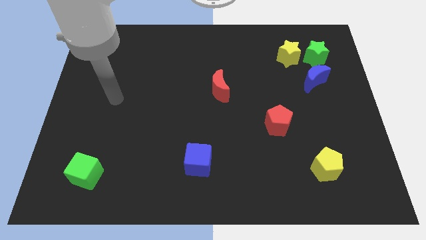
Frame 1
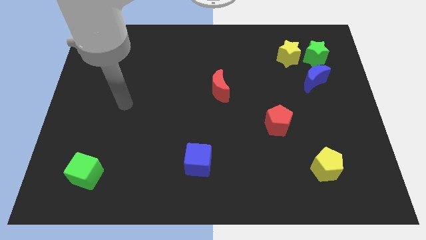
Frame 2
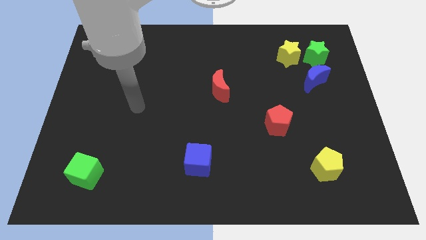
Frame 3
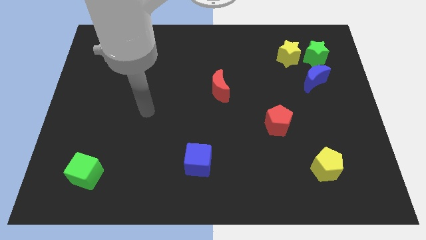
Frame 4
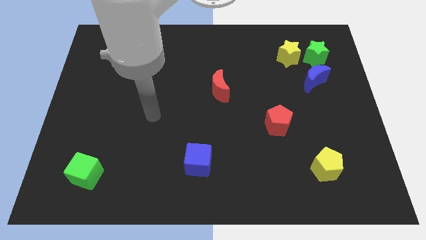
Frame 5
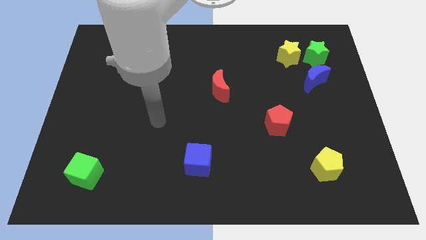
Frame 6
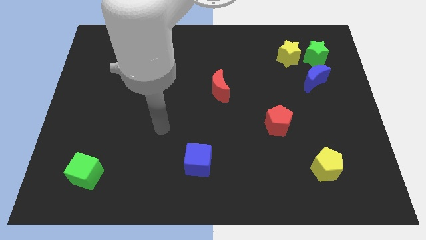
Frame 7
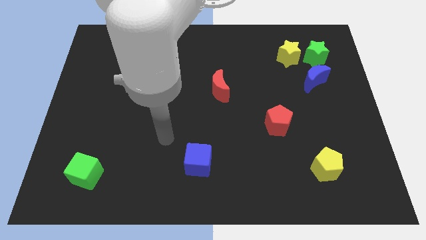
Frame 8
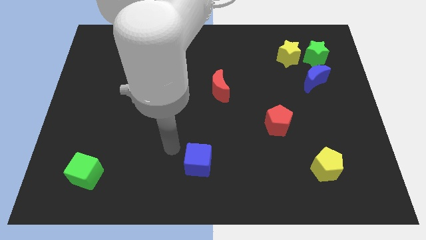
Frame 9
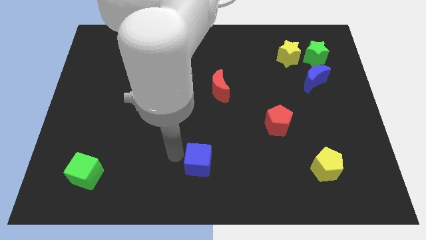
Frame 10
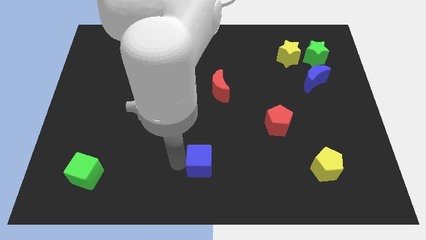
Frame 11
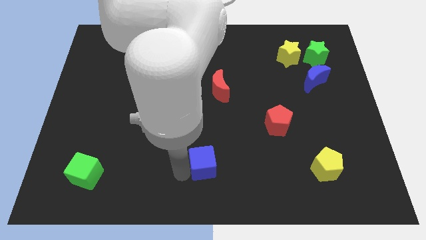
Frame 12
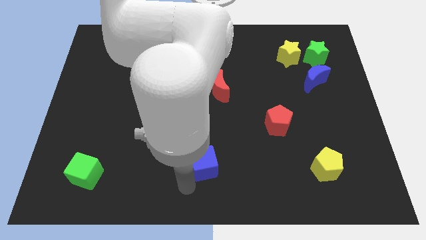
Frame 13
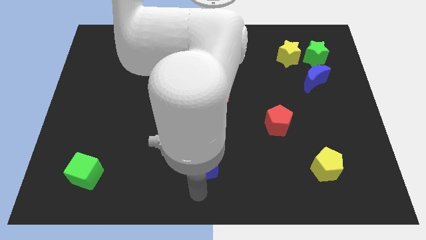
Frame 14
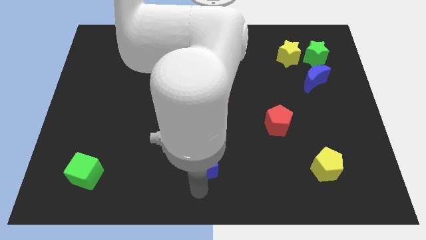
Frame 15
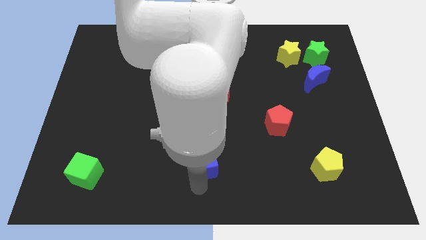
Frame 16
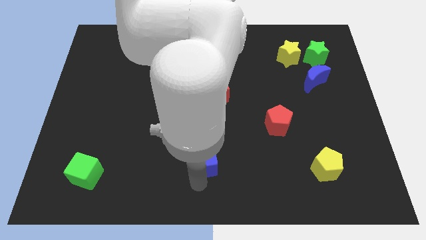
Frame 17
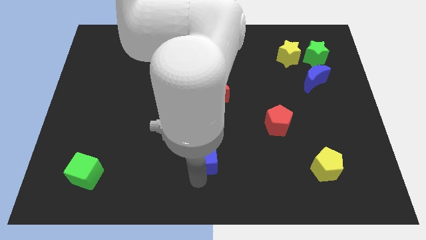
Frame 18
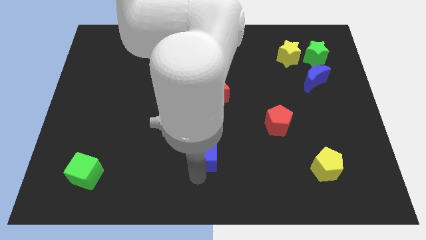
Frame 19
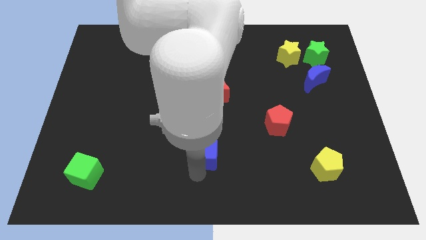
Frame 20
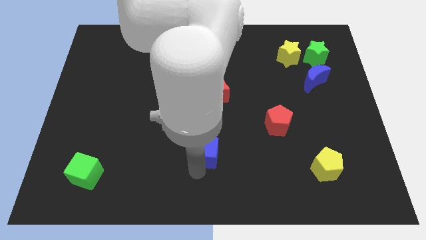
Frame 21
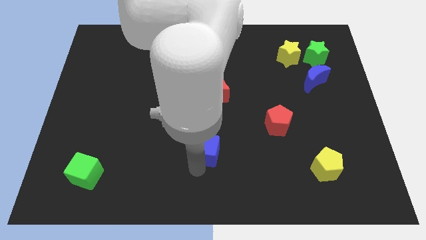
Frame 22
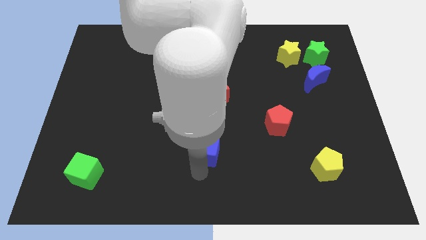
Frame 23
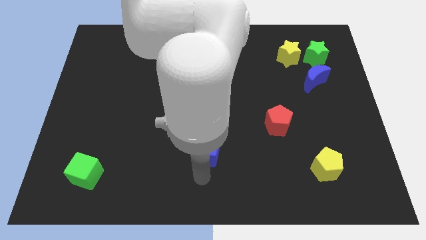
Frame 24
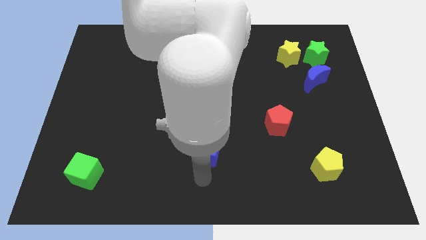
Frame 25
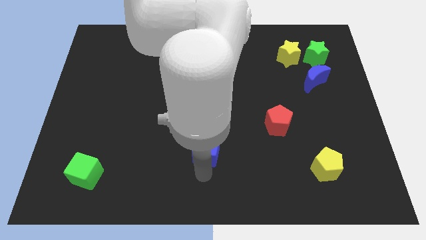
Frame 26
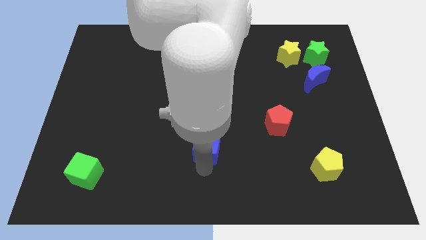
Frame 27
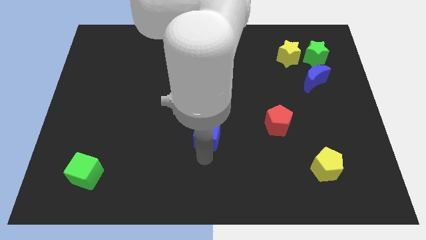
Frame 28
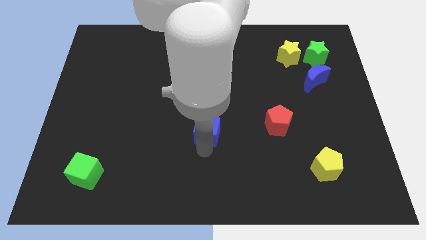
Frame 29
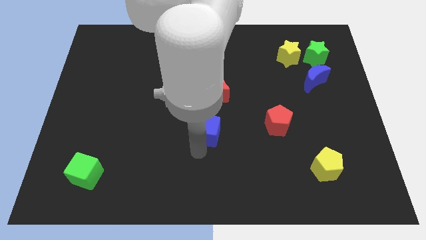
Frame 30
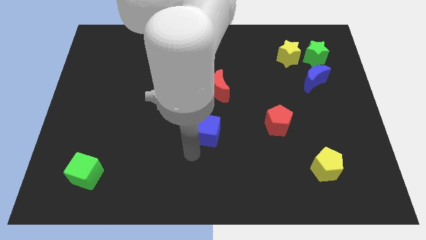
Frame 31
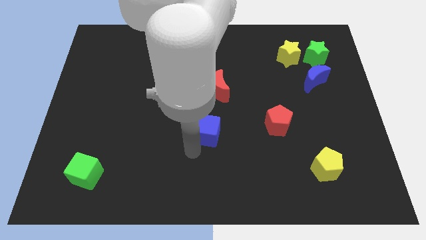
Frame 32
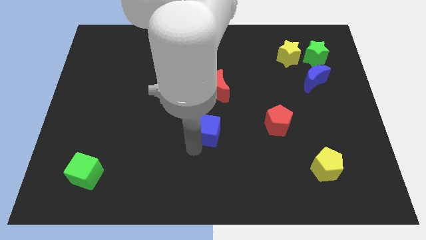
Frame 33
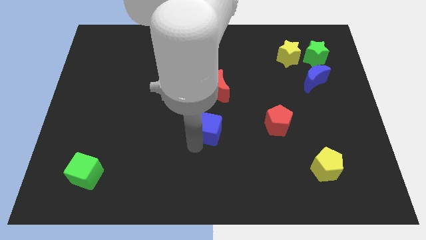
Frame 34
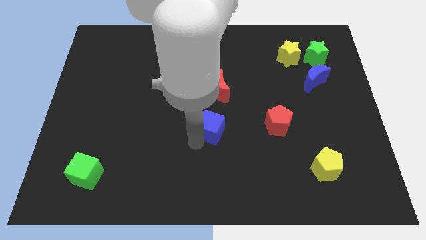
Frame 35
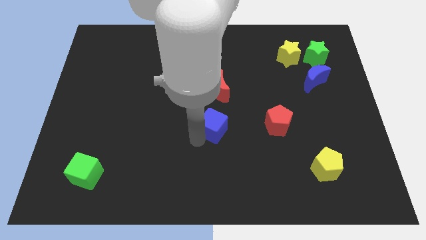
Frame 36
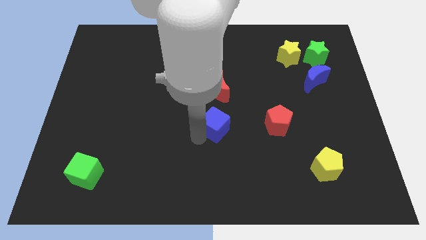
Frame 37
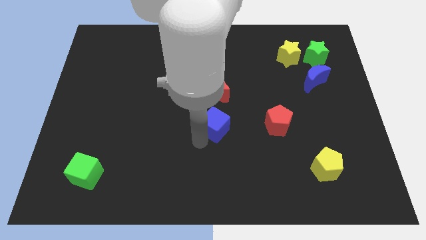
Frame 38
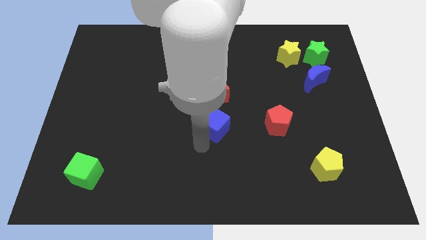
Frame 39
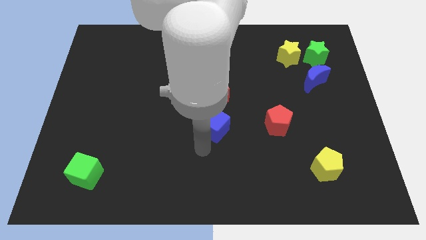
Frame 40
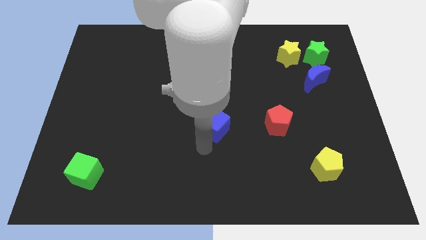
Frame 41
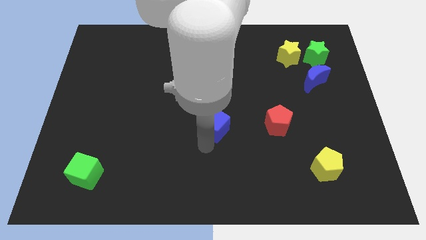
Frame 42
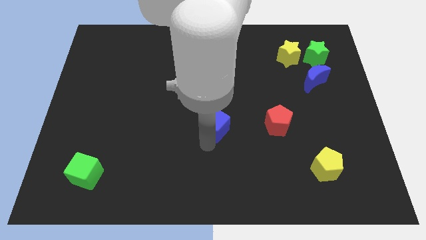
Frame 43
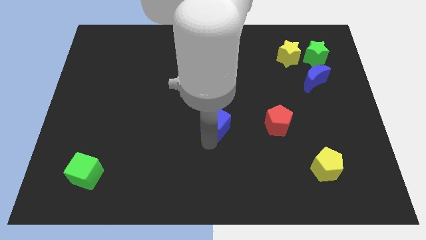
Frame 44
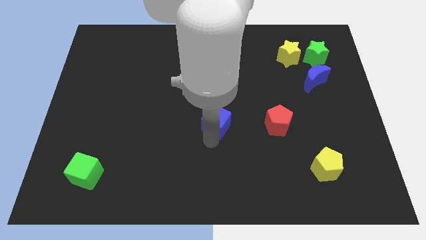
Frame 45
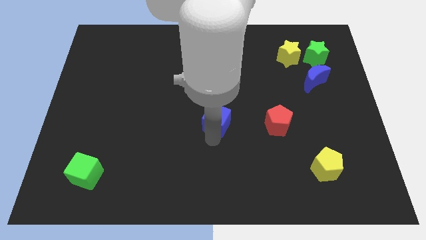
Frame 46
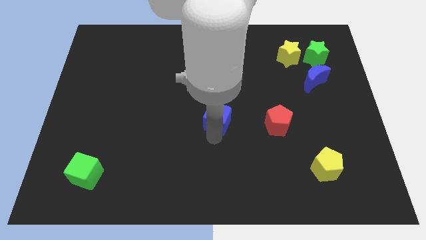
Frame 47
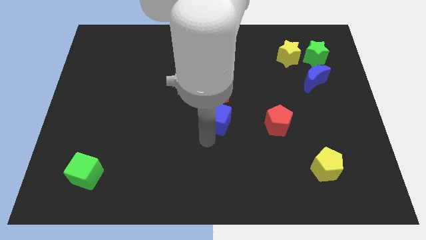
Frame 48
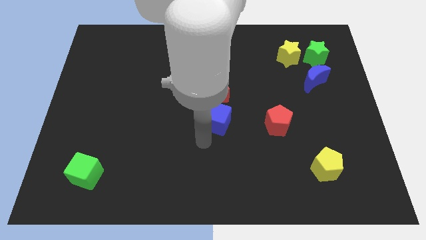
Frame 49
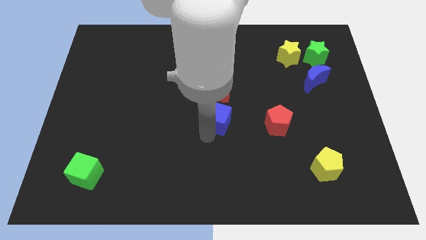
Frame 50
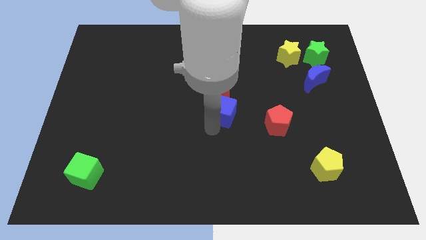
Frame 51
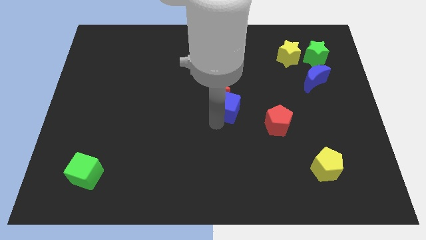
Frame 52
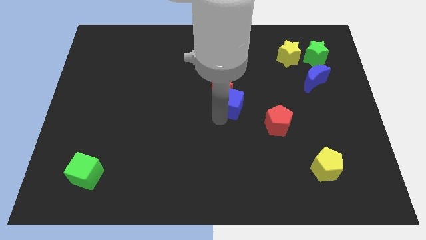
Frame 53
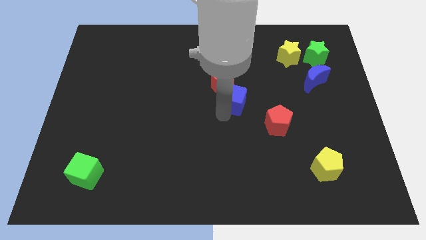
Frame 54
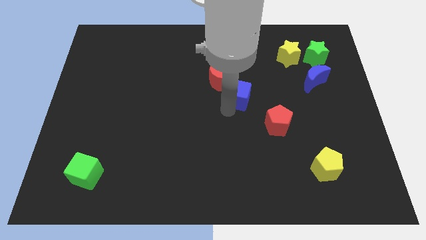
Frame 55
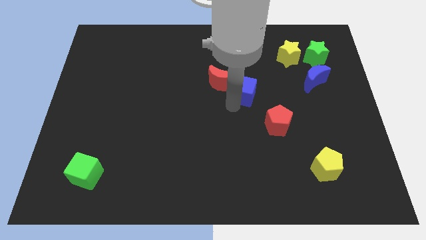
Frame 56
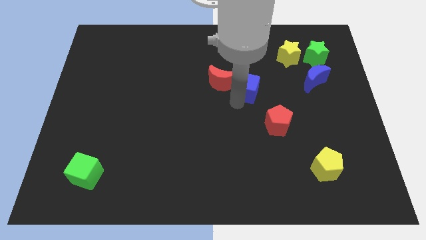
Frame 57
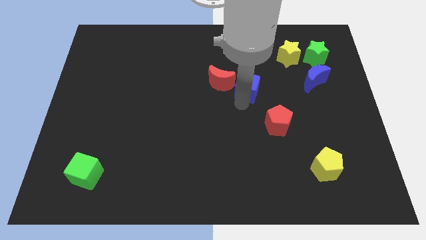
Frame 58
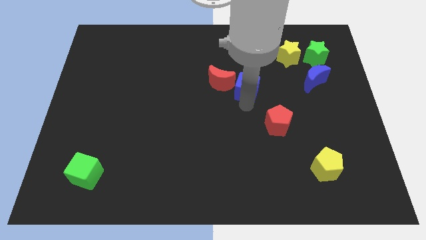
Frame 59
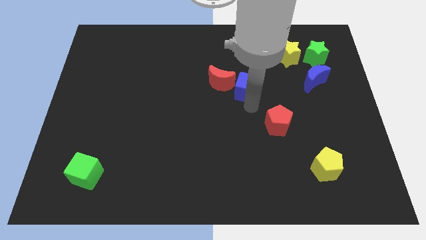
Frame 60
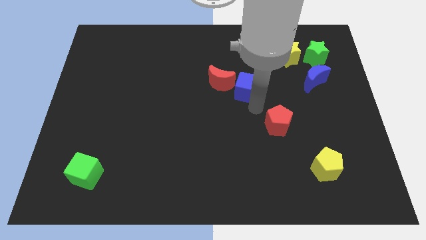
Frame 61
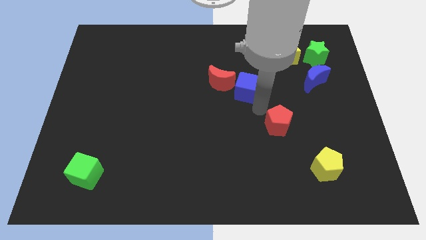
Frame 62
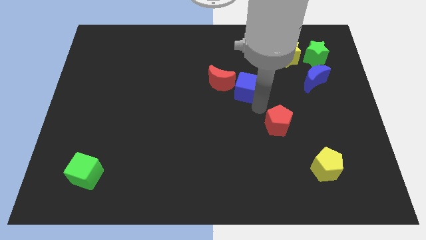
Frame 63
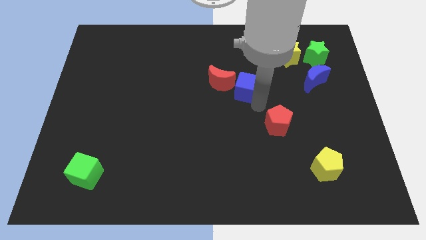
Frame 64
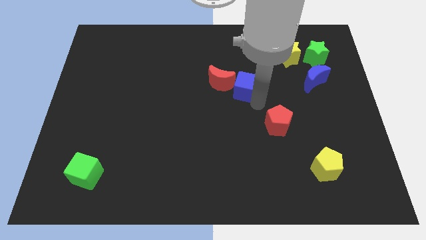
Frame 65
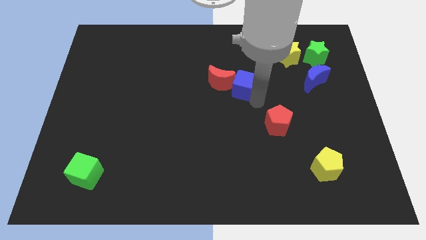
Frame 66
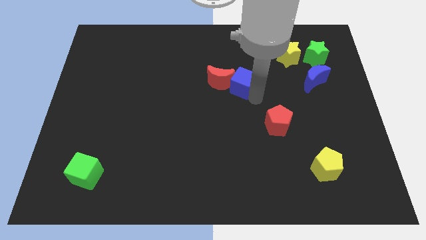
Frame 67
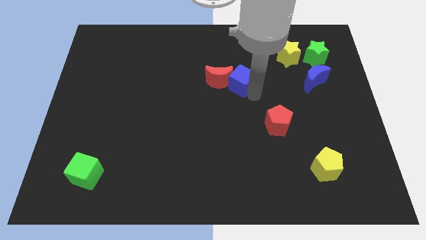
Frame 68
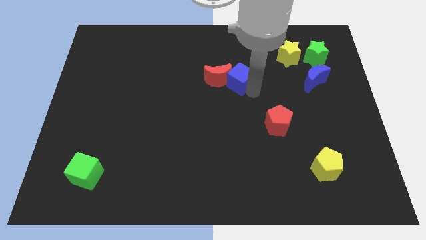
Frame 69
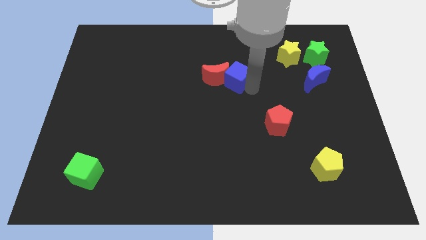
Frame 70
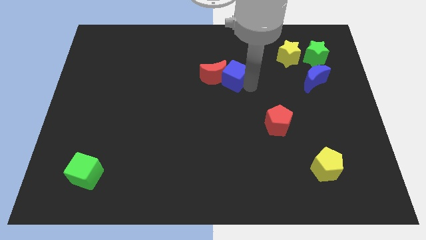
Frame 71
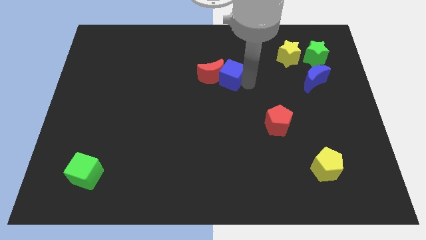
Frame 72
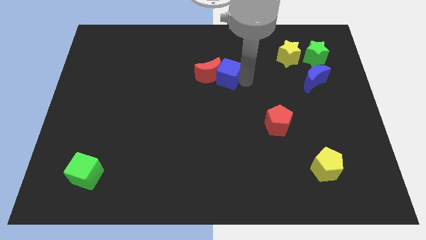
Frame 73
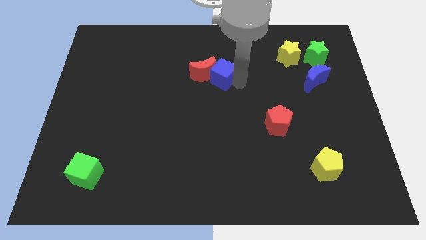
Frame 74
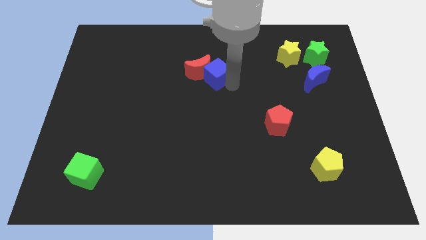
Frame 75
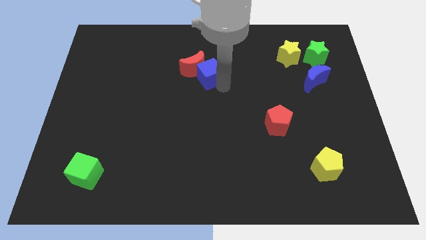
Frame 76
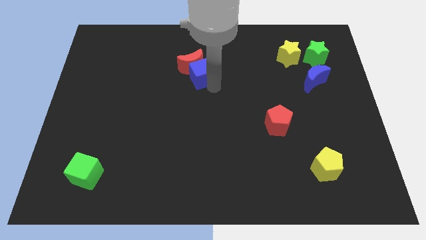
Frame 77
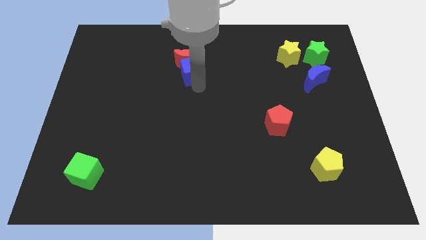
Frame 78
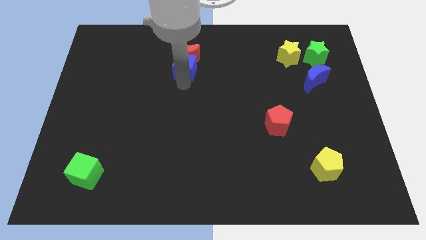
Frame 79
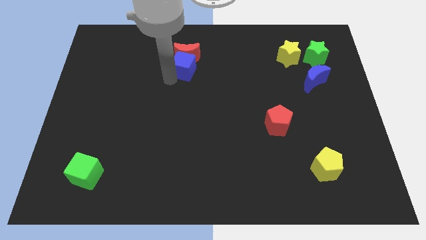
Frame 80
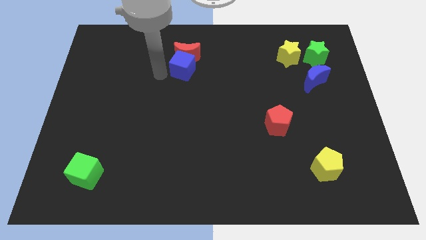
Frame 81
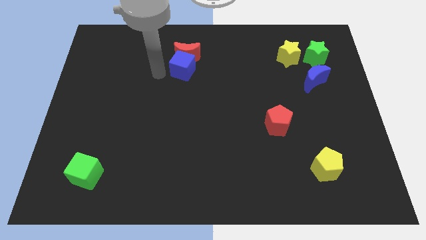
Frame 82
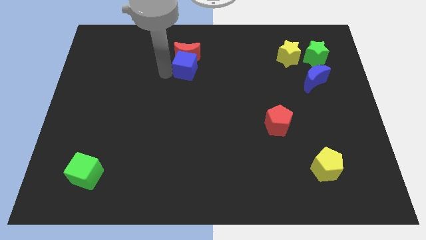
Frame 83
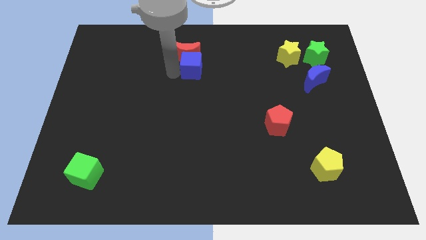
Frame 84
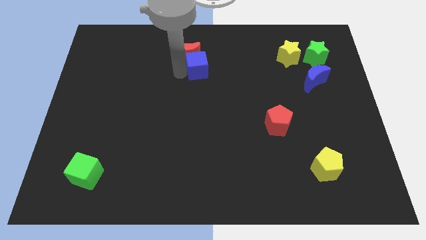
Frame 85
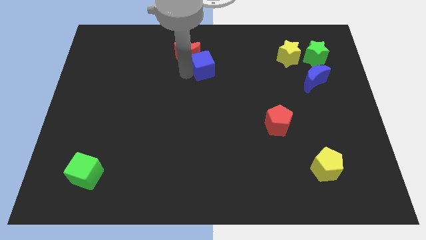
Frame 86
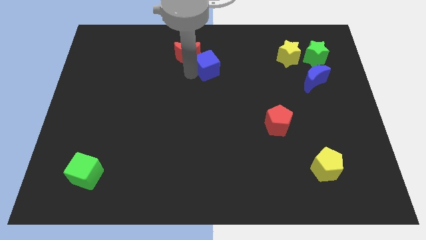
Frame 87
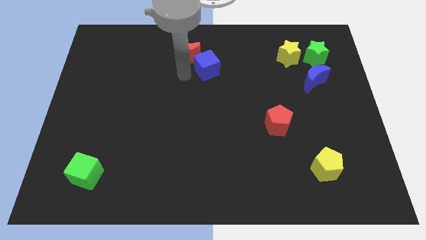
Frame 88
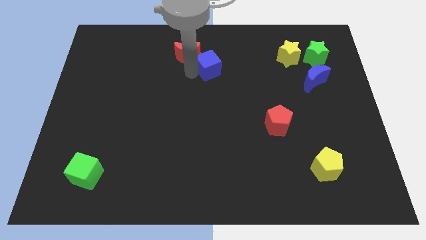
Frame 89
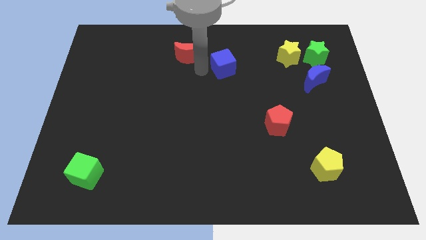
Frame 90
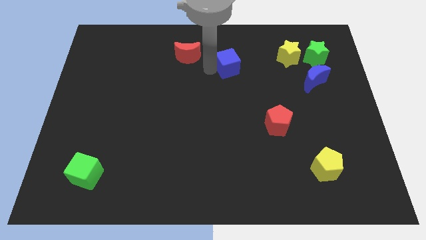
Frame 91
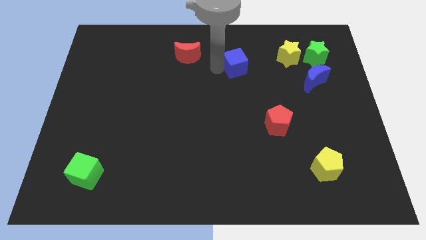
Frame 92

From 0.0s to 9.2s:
push the blue cube left of the yellow star
